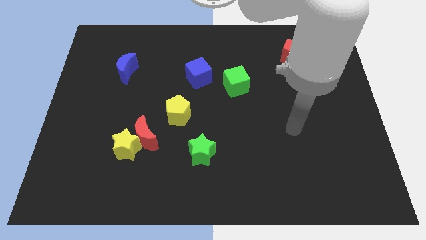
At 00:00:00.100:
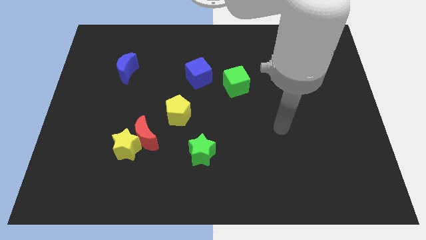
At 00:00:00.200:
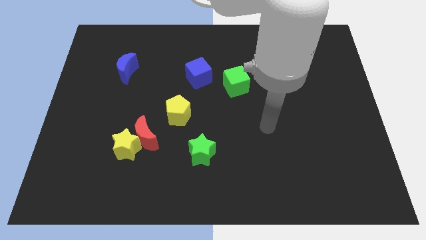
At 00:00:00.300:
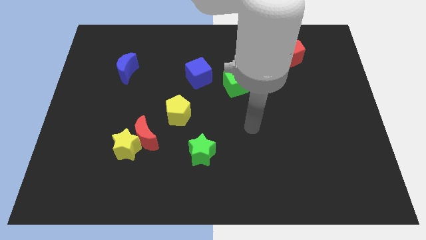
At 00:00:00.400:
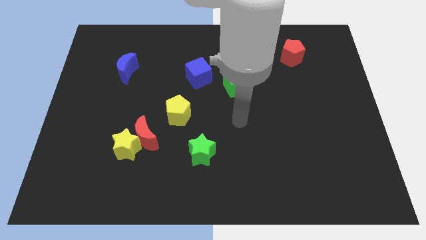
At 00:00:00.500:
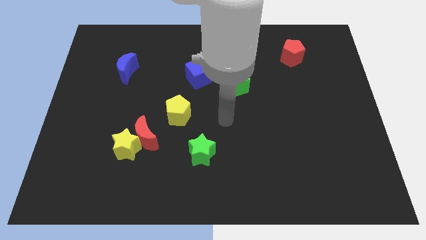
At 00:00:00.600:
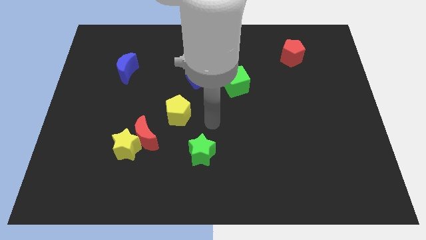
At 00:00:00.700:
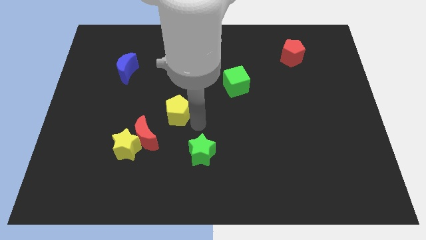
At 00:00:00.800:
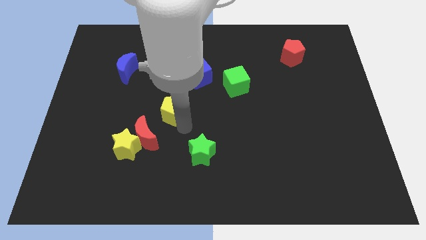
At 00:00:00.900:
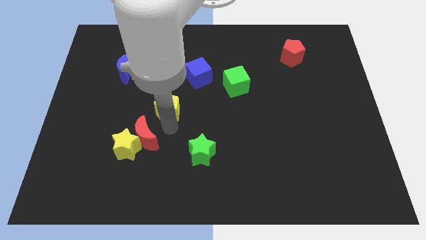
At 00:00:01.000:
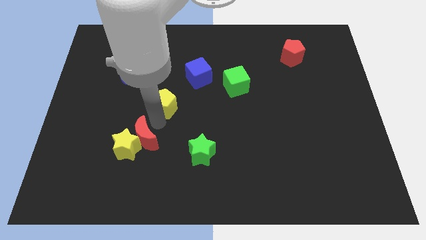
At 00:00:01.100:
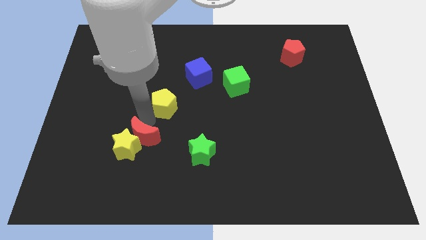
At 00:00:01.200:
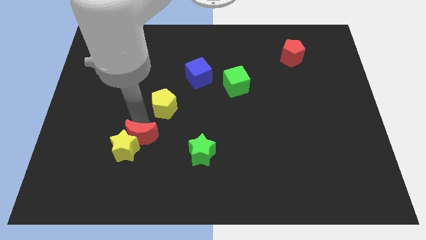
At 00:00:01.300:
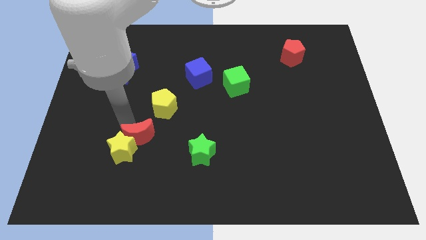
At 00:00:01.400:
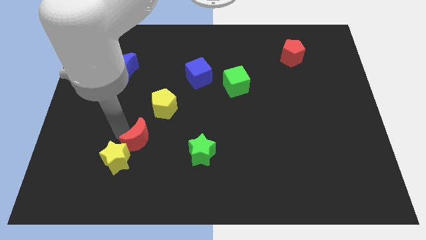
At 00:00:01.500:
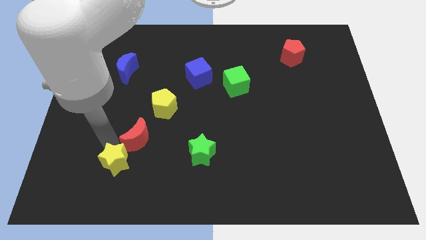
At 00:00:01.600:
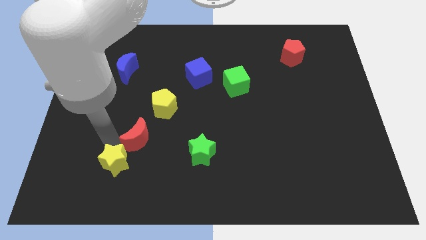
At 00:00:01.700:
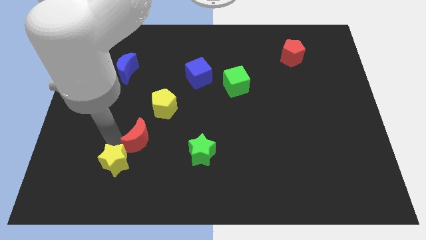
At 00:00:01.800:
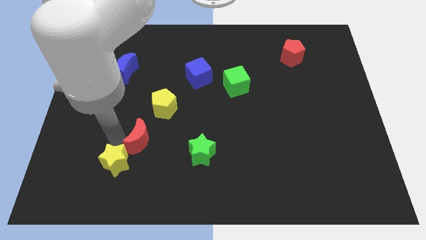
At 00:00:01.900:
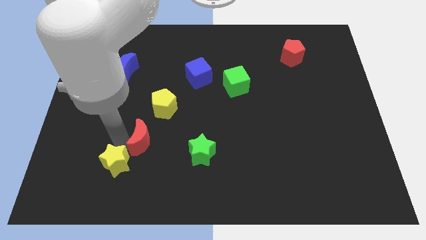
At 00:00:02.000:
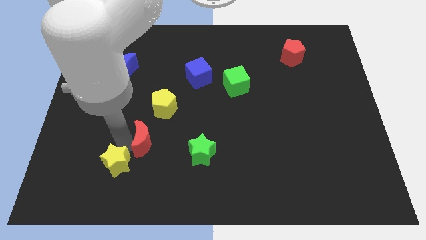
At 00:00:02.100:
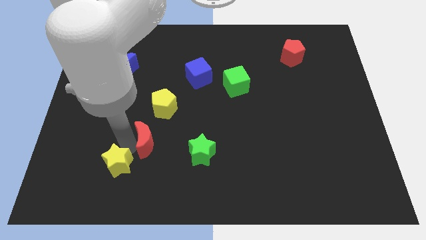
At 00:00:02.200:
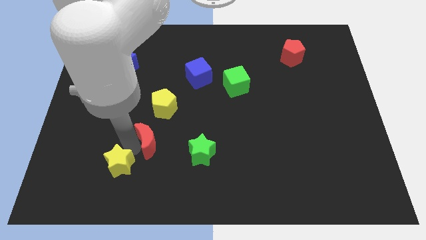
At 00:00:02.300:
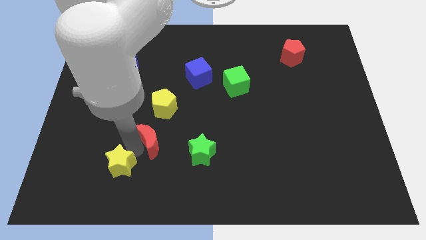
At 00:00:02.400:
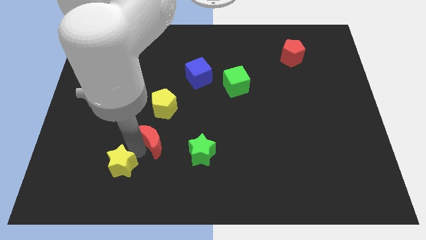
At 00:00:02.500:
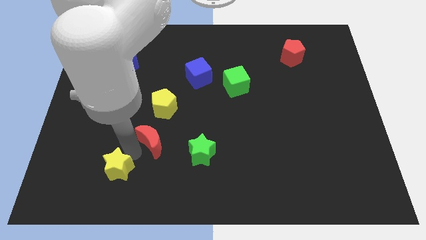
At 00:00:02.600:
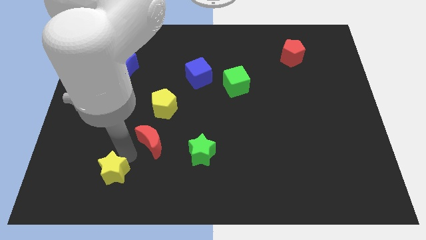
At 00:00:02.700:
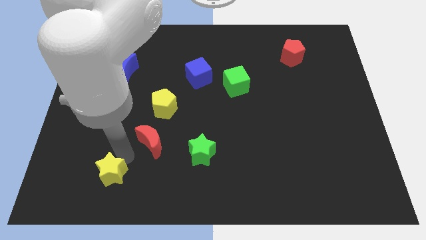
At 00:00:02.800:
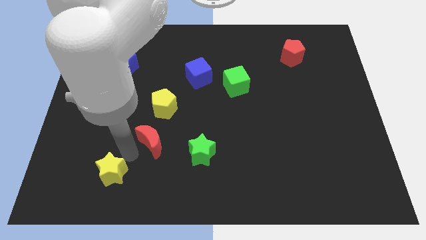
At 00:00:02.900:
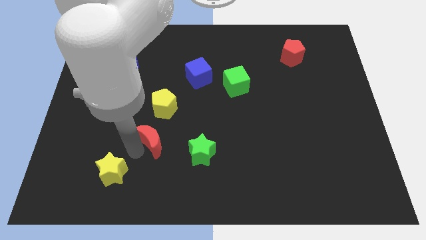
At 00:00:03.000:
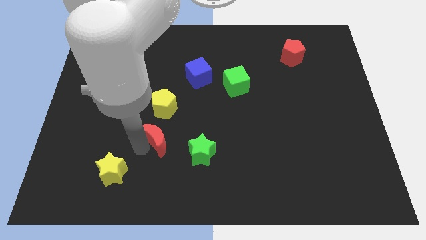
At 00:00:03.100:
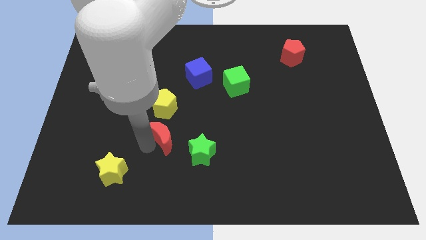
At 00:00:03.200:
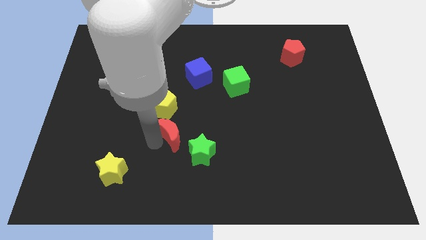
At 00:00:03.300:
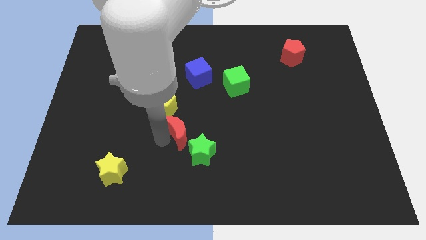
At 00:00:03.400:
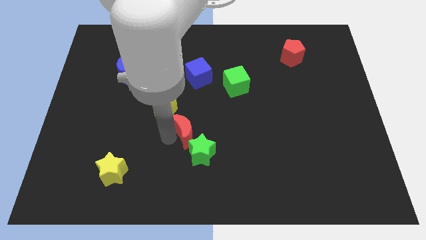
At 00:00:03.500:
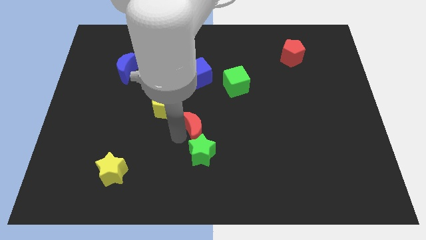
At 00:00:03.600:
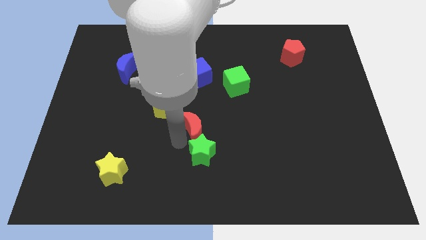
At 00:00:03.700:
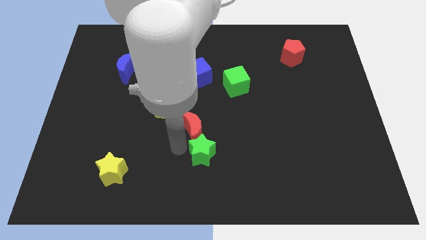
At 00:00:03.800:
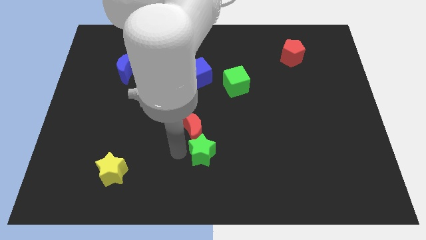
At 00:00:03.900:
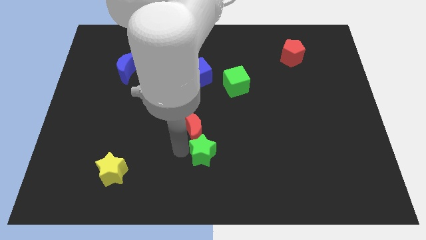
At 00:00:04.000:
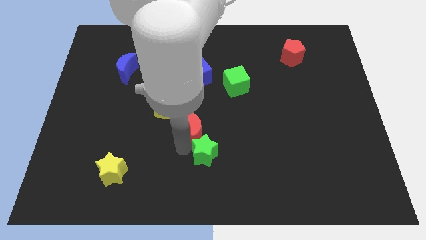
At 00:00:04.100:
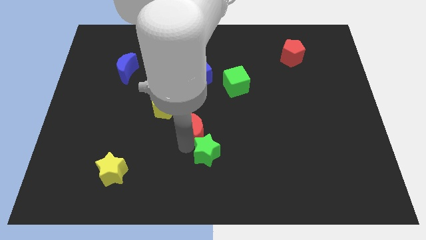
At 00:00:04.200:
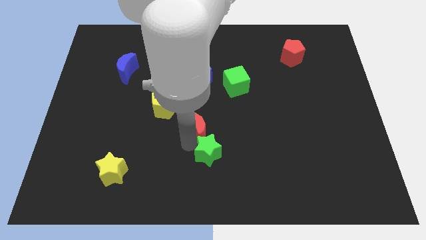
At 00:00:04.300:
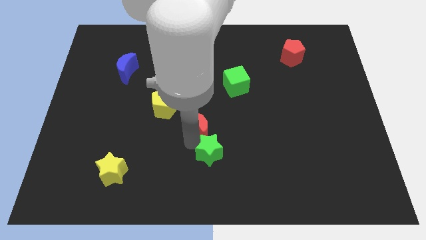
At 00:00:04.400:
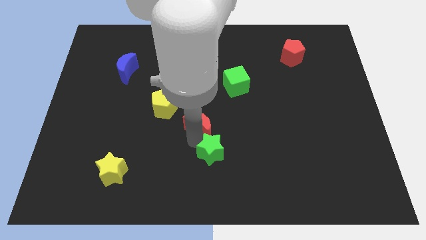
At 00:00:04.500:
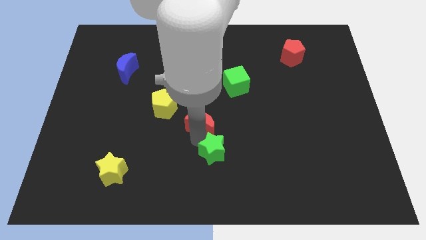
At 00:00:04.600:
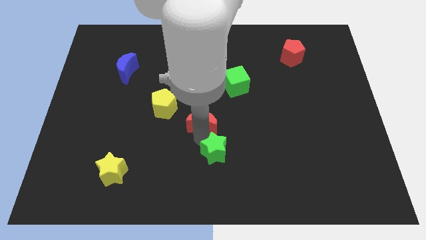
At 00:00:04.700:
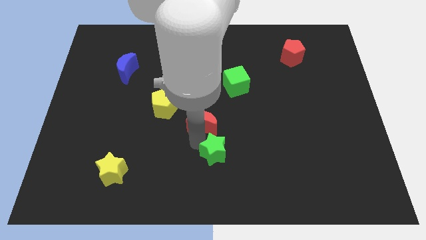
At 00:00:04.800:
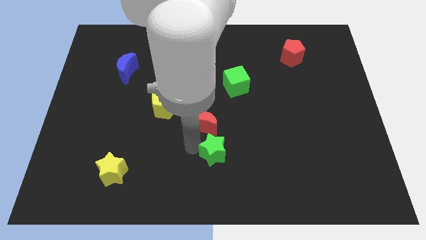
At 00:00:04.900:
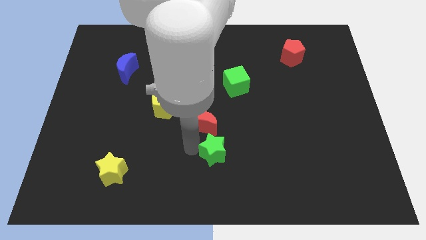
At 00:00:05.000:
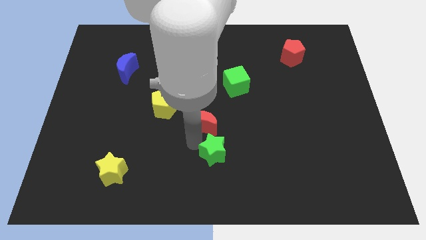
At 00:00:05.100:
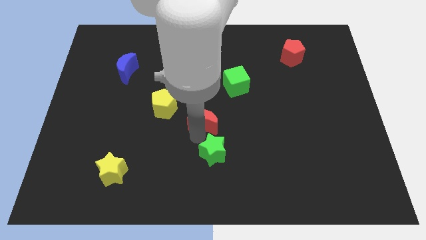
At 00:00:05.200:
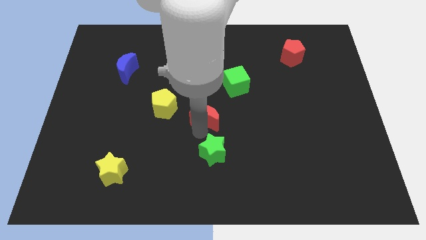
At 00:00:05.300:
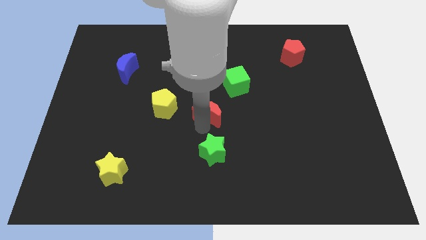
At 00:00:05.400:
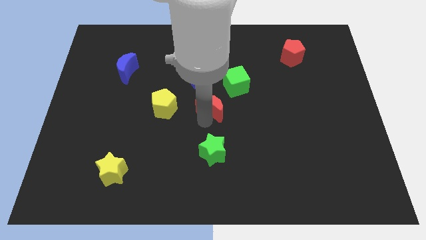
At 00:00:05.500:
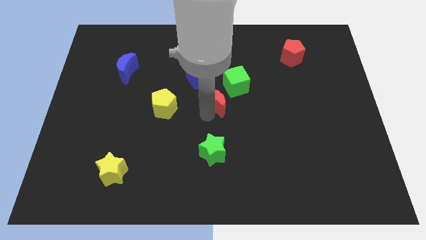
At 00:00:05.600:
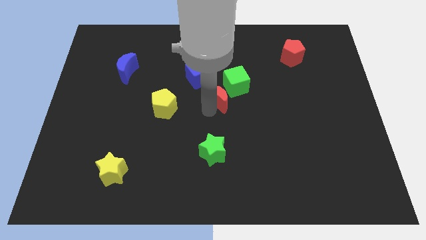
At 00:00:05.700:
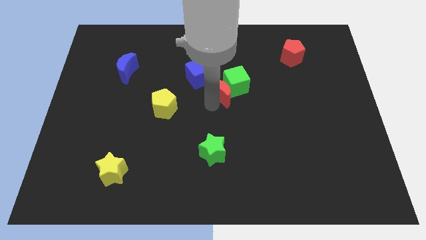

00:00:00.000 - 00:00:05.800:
put the red moon close to the green cube

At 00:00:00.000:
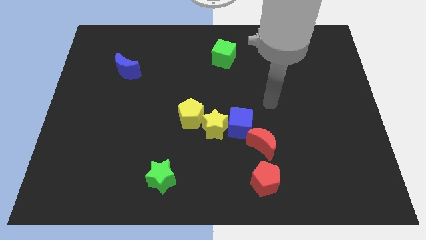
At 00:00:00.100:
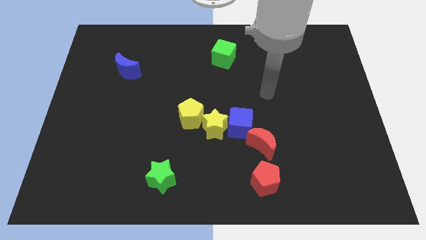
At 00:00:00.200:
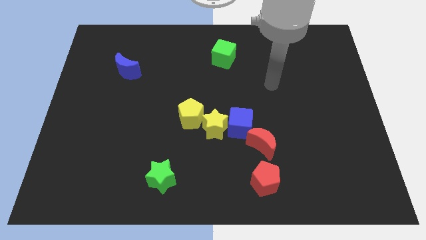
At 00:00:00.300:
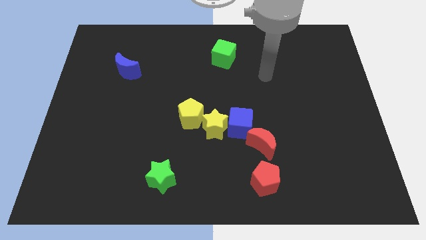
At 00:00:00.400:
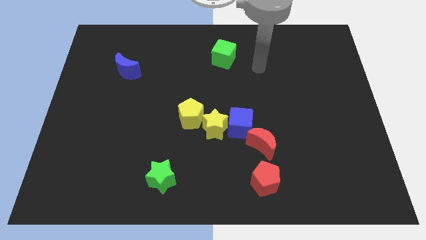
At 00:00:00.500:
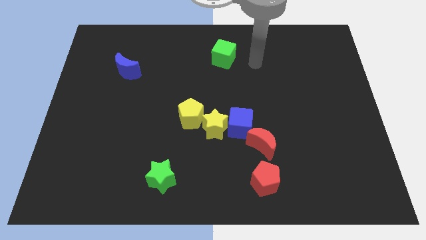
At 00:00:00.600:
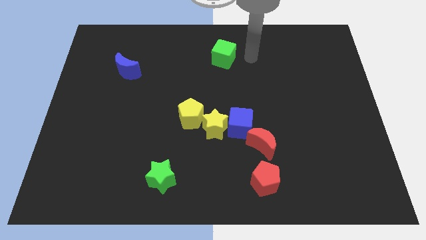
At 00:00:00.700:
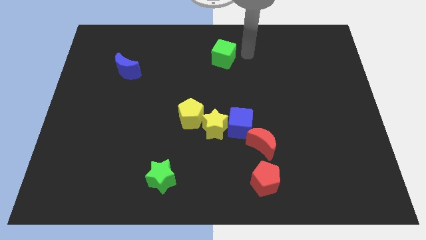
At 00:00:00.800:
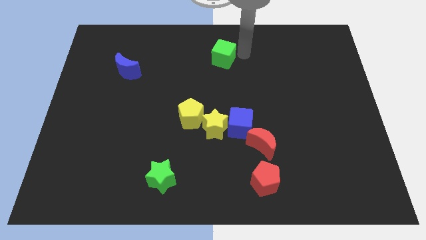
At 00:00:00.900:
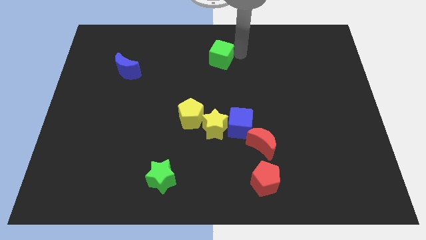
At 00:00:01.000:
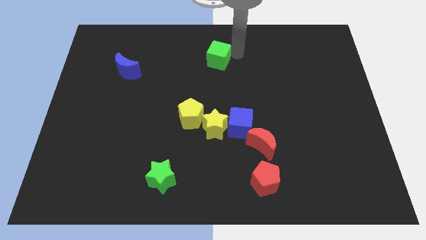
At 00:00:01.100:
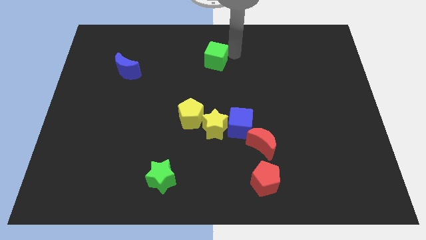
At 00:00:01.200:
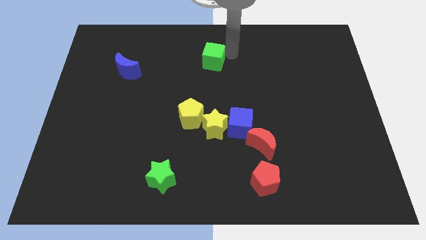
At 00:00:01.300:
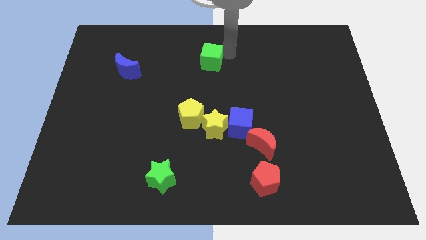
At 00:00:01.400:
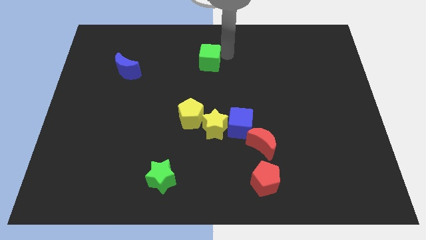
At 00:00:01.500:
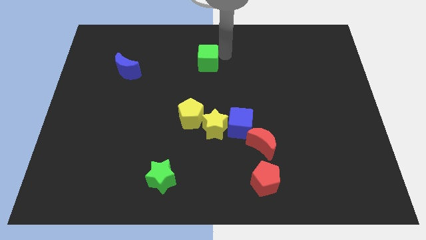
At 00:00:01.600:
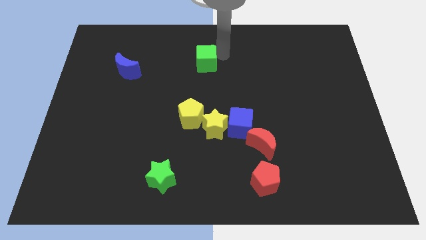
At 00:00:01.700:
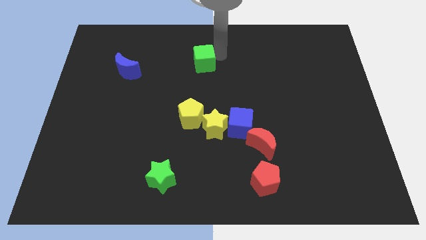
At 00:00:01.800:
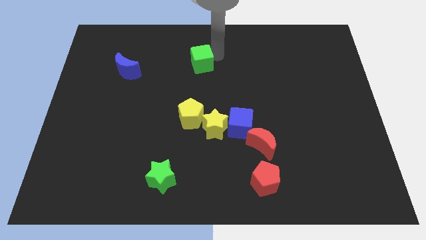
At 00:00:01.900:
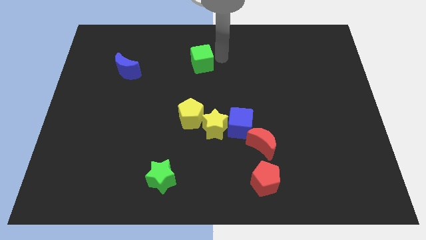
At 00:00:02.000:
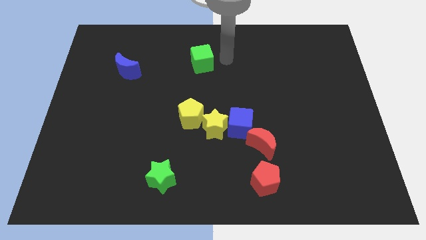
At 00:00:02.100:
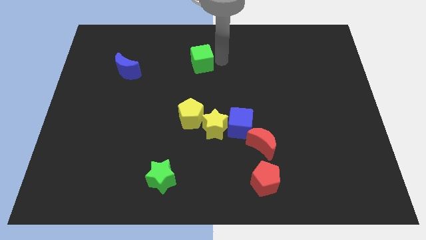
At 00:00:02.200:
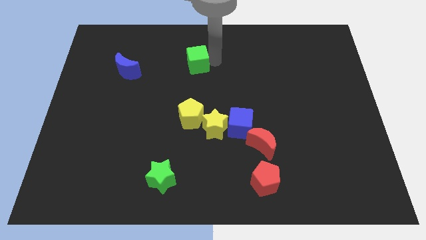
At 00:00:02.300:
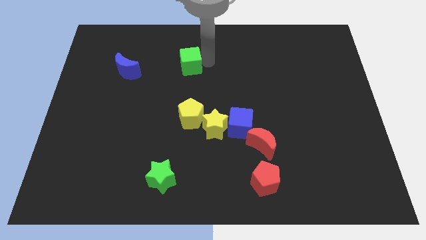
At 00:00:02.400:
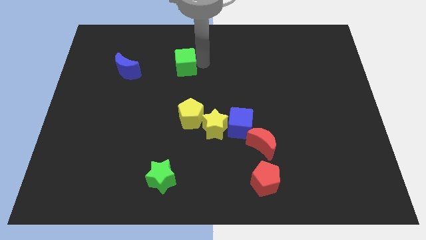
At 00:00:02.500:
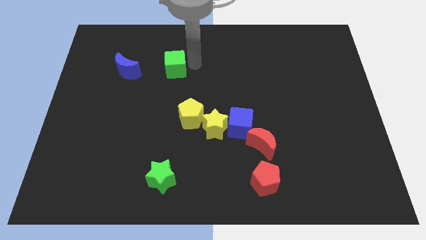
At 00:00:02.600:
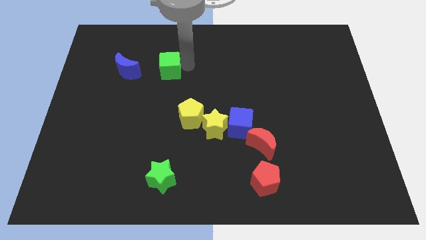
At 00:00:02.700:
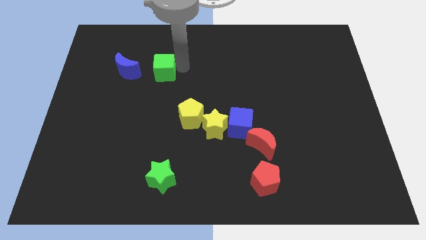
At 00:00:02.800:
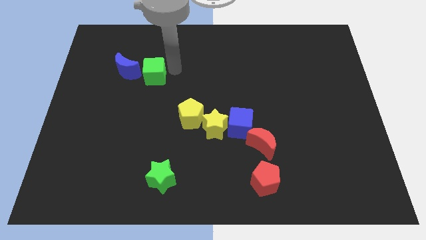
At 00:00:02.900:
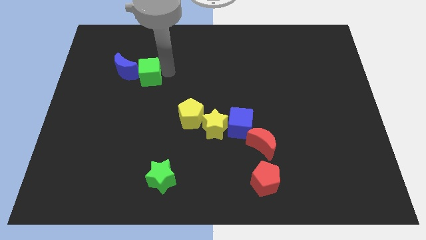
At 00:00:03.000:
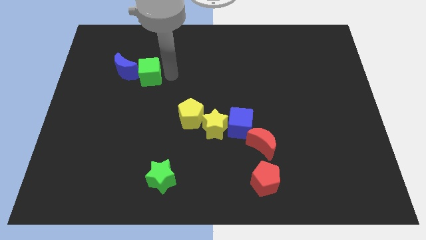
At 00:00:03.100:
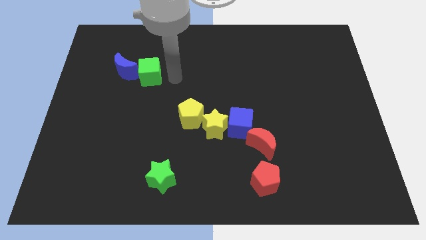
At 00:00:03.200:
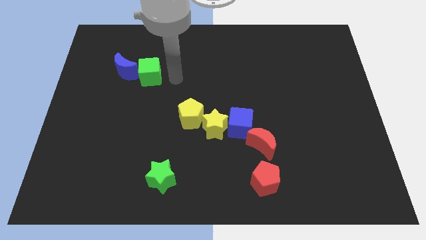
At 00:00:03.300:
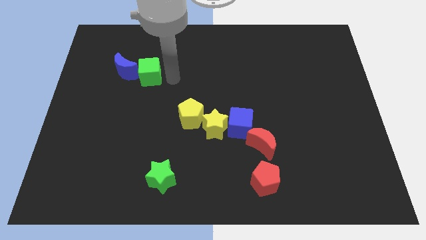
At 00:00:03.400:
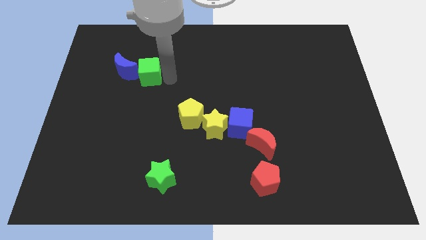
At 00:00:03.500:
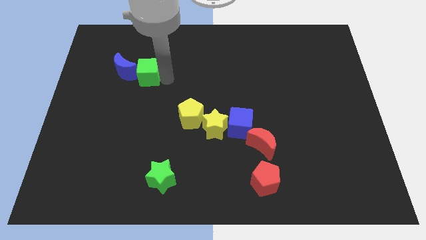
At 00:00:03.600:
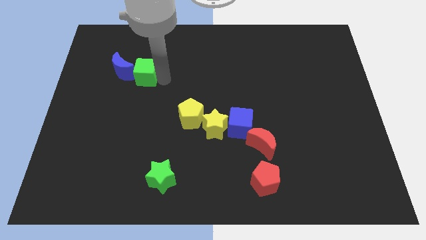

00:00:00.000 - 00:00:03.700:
move the green cube to the blue moon
